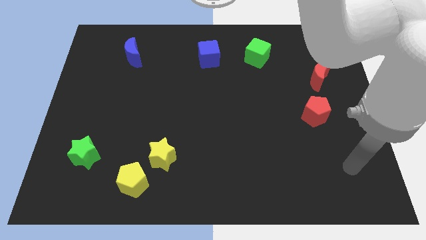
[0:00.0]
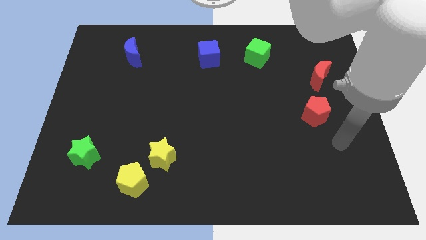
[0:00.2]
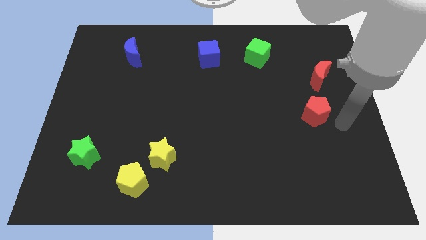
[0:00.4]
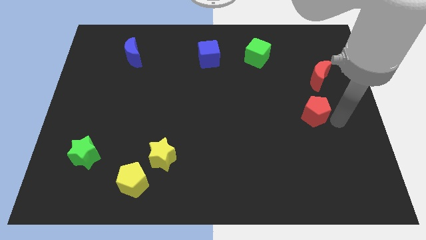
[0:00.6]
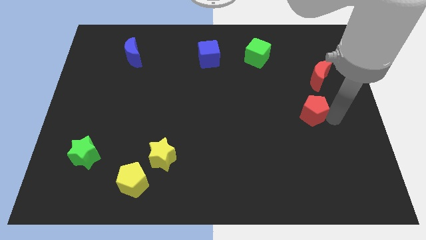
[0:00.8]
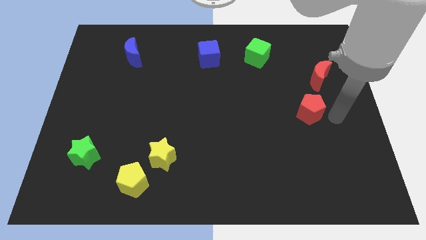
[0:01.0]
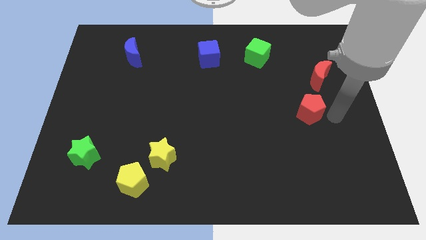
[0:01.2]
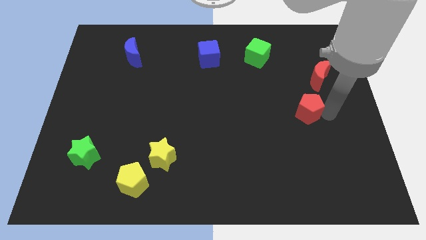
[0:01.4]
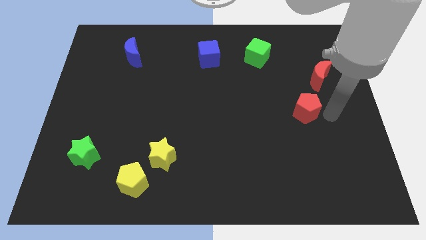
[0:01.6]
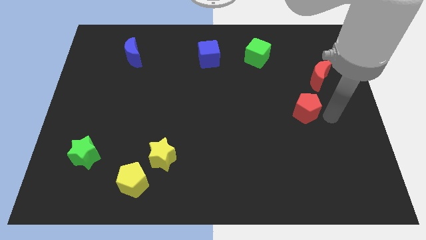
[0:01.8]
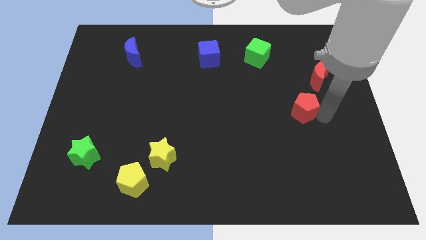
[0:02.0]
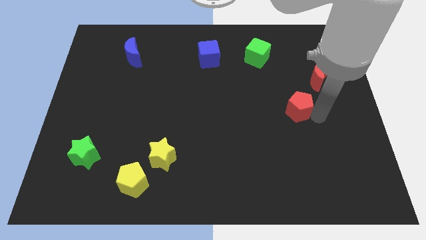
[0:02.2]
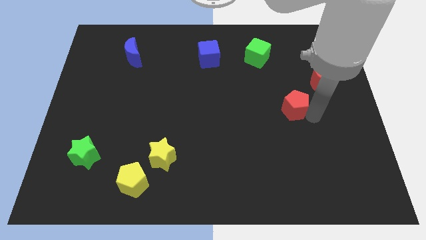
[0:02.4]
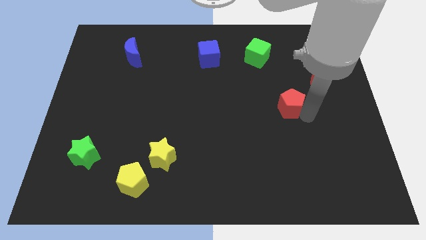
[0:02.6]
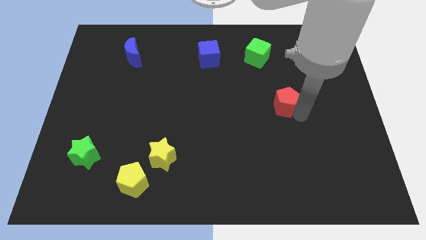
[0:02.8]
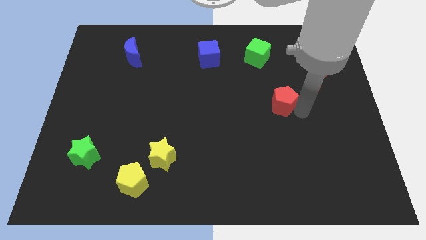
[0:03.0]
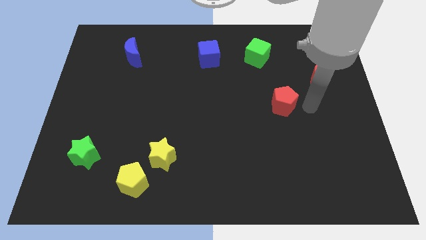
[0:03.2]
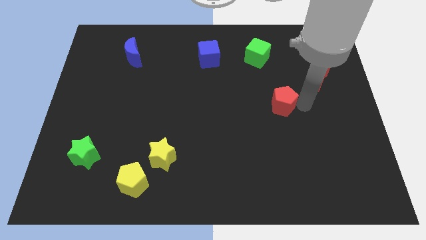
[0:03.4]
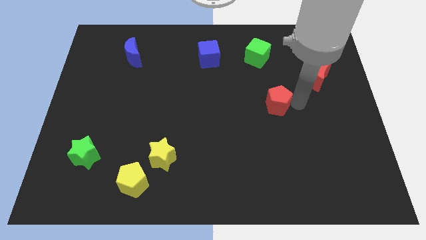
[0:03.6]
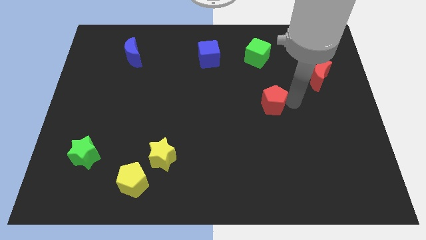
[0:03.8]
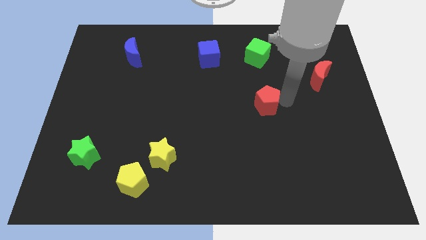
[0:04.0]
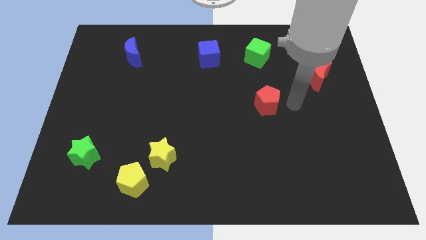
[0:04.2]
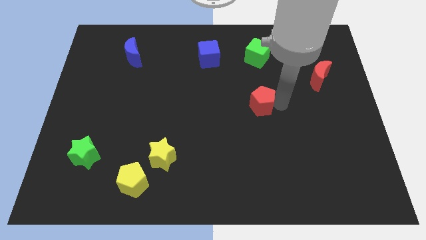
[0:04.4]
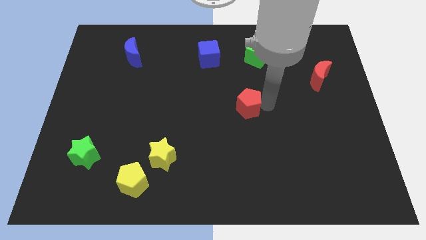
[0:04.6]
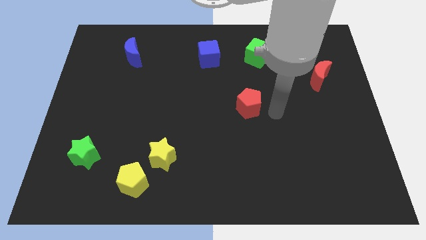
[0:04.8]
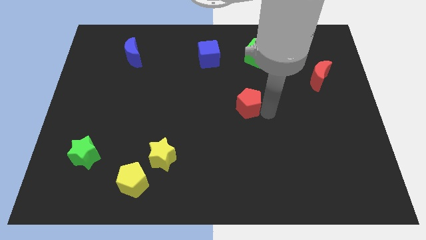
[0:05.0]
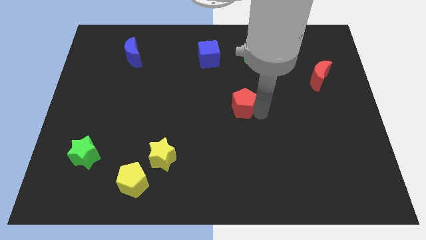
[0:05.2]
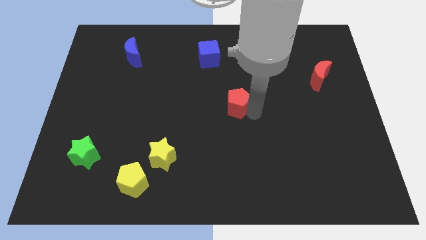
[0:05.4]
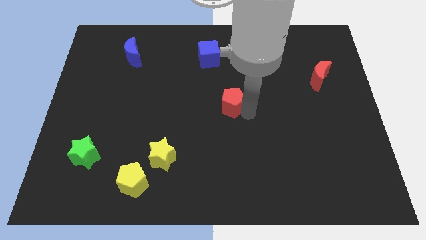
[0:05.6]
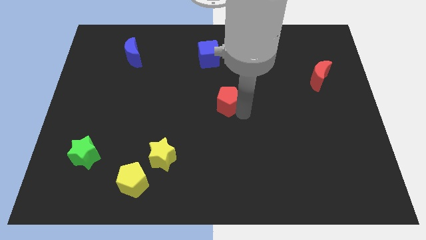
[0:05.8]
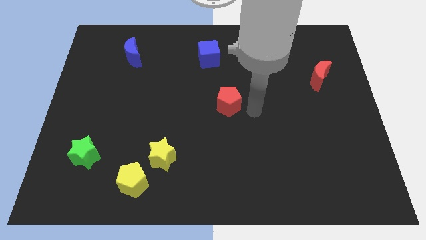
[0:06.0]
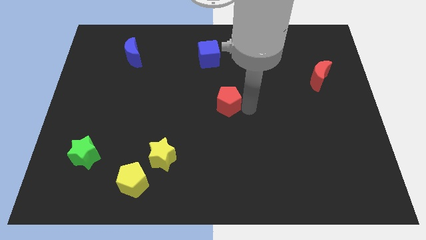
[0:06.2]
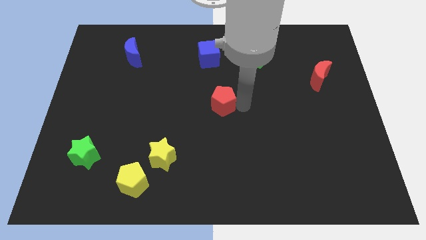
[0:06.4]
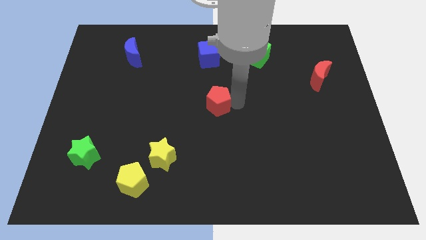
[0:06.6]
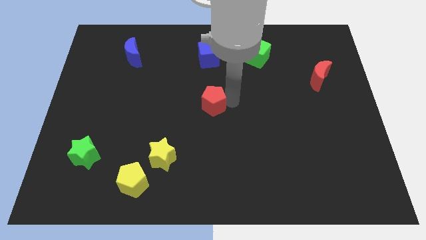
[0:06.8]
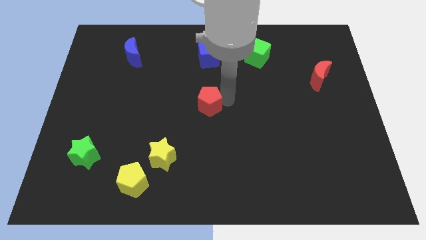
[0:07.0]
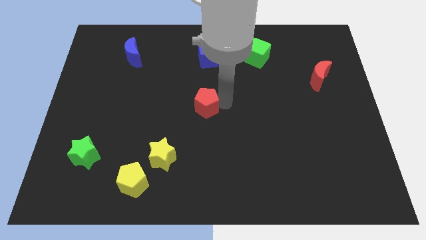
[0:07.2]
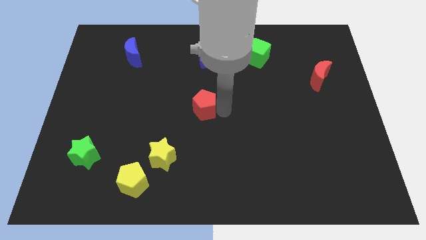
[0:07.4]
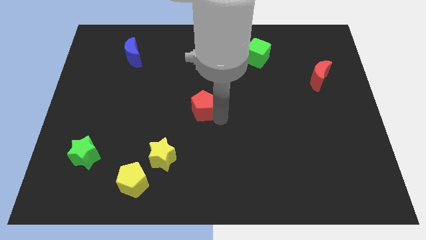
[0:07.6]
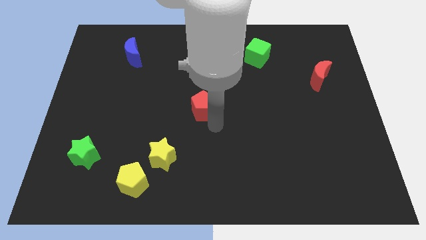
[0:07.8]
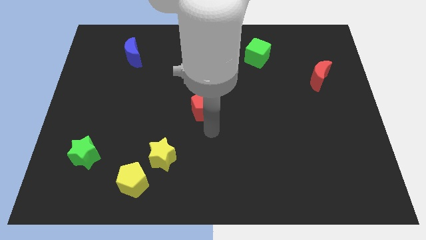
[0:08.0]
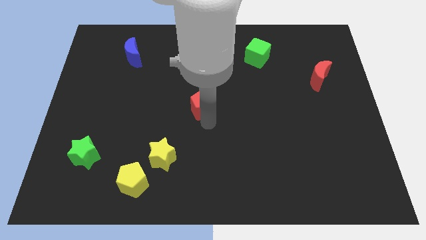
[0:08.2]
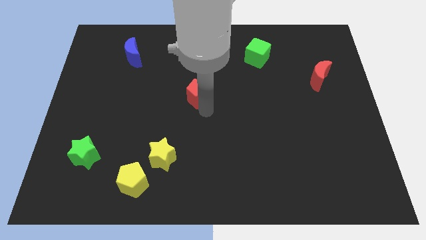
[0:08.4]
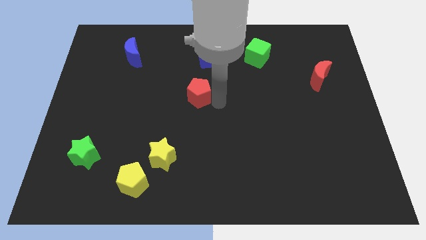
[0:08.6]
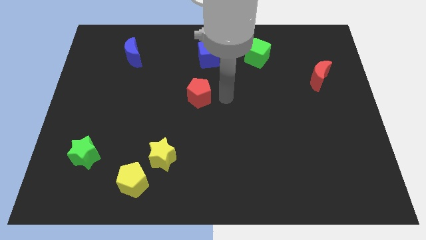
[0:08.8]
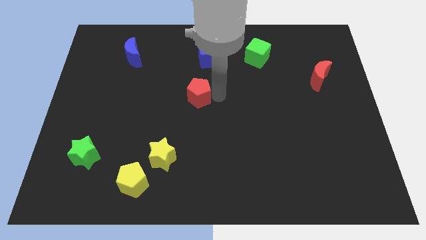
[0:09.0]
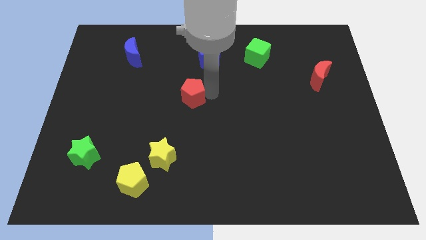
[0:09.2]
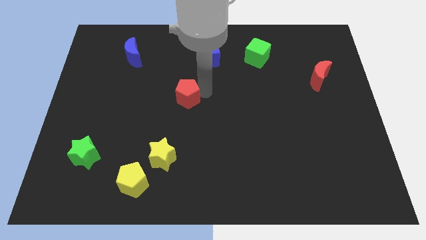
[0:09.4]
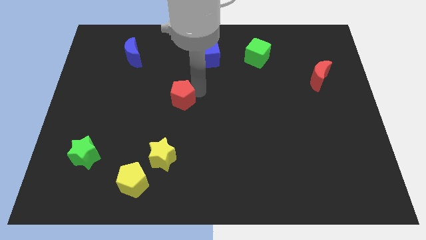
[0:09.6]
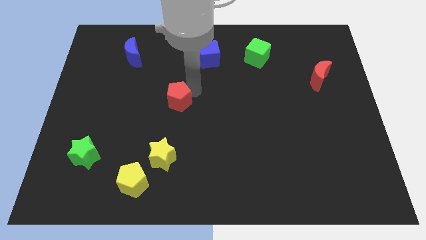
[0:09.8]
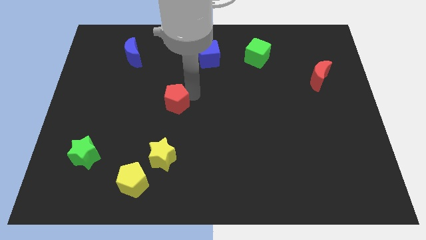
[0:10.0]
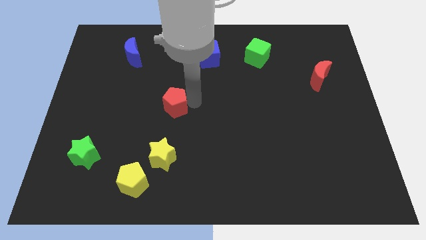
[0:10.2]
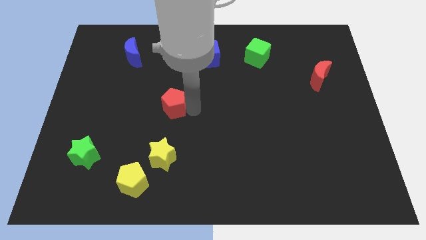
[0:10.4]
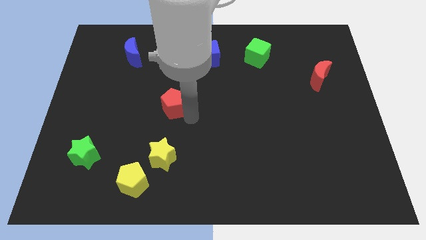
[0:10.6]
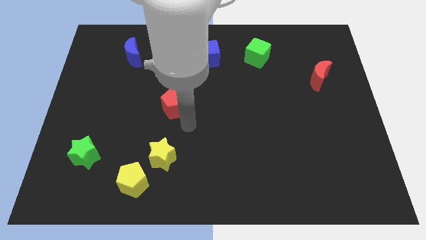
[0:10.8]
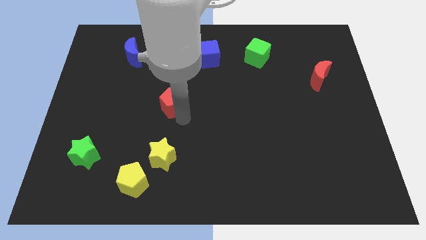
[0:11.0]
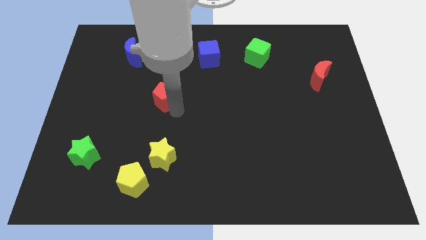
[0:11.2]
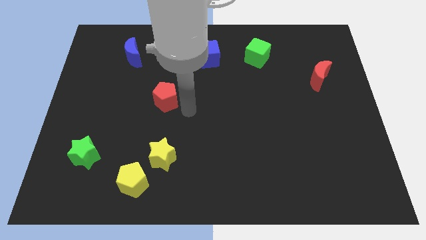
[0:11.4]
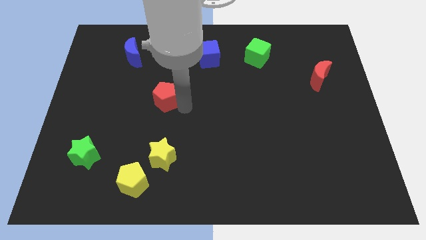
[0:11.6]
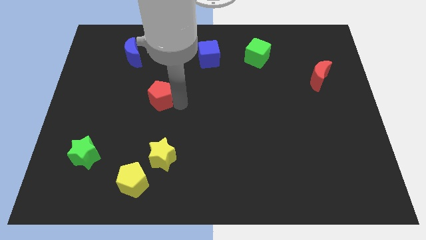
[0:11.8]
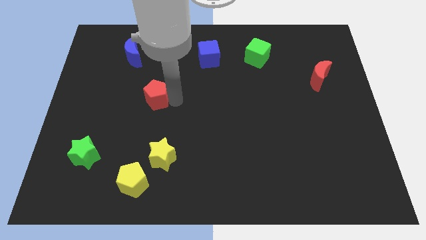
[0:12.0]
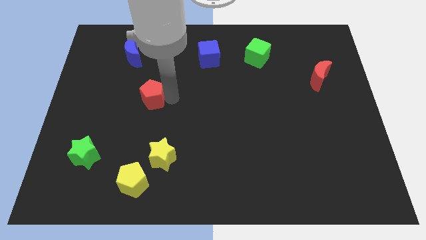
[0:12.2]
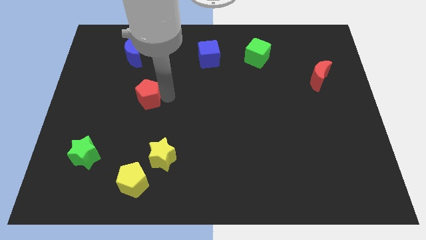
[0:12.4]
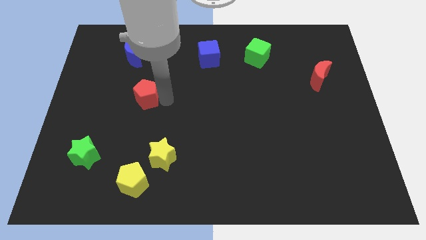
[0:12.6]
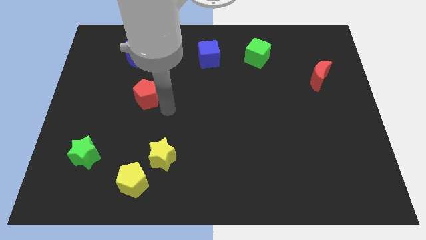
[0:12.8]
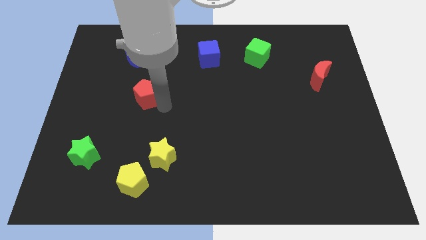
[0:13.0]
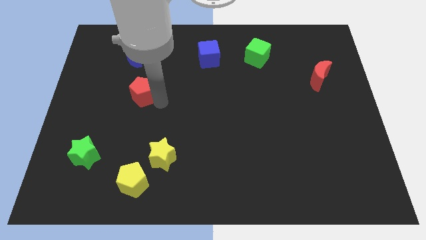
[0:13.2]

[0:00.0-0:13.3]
move the red pentagon to the bottom side of the blue moon
